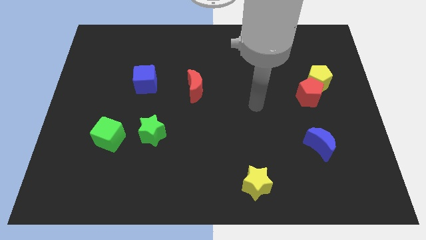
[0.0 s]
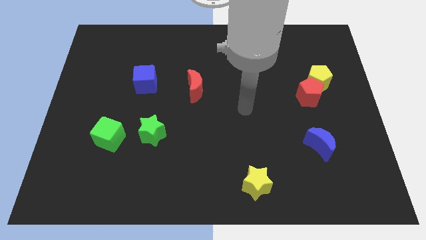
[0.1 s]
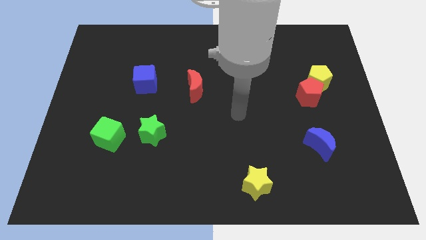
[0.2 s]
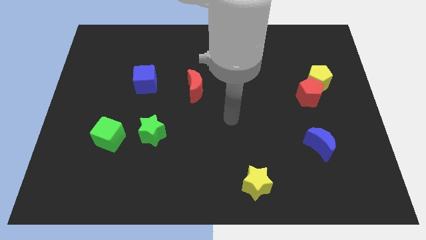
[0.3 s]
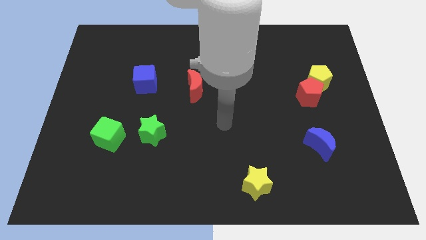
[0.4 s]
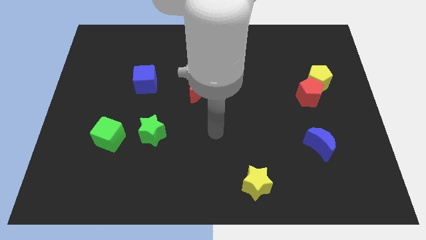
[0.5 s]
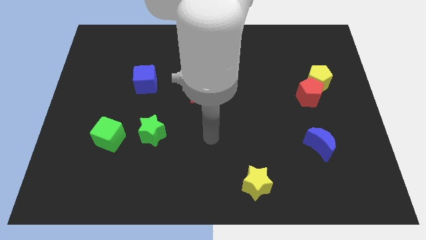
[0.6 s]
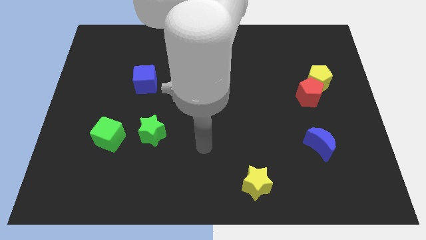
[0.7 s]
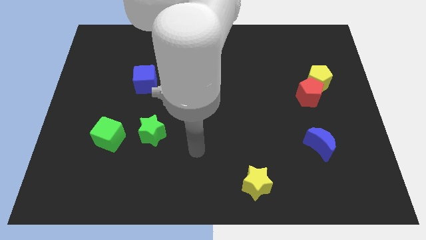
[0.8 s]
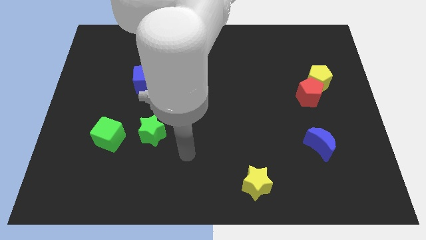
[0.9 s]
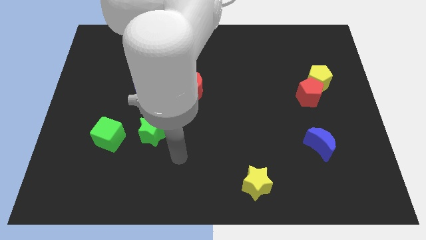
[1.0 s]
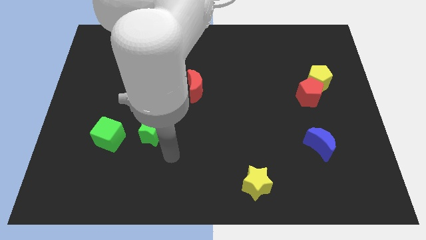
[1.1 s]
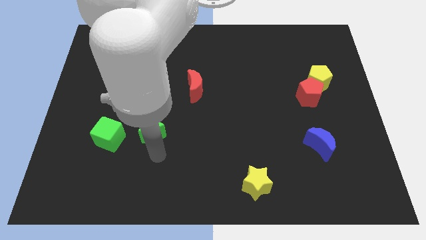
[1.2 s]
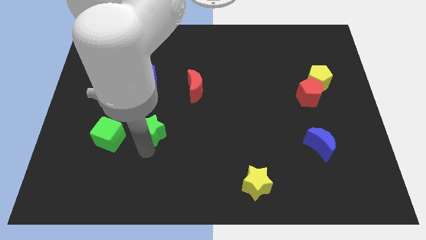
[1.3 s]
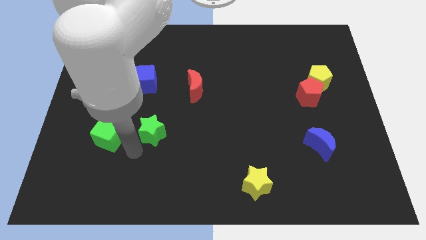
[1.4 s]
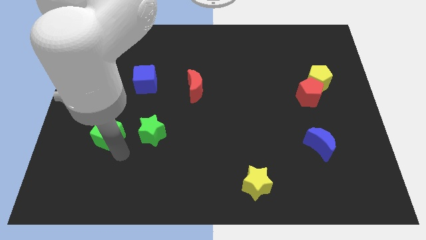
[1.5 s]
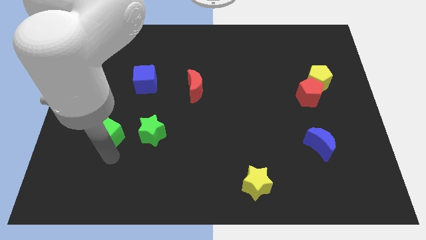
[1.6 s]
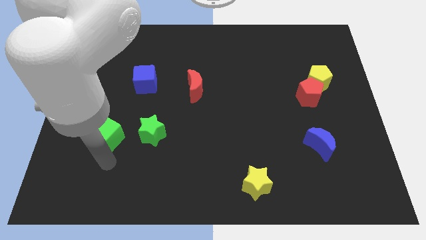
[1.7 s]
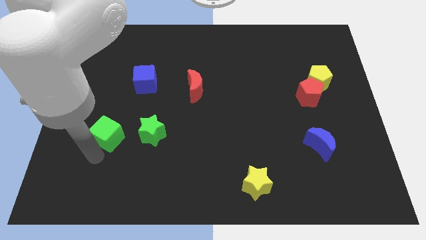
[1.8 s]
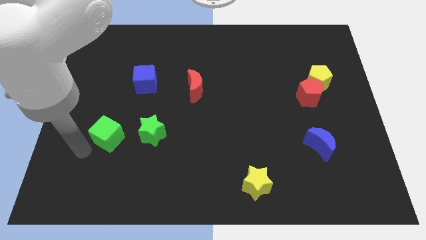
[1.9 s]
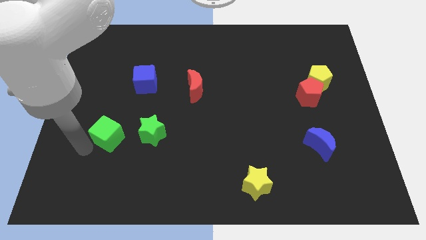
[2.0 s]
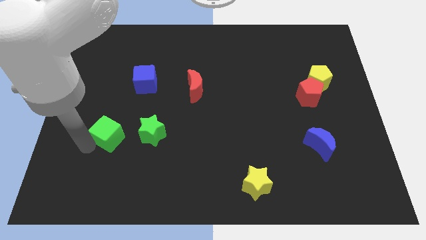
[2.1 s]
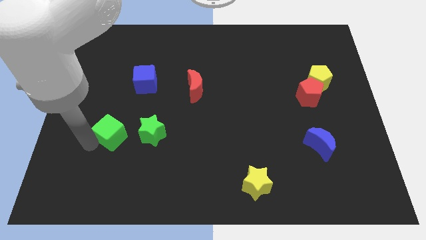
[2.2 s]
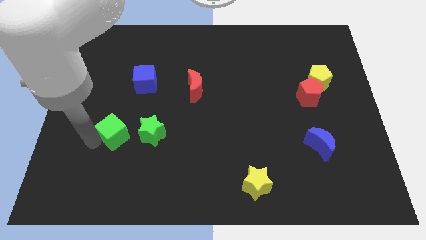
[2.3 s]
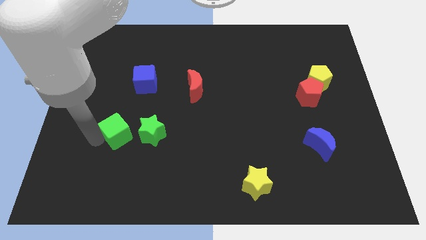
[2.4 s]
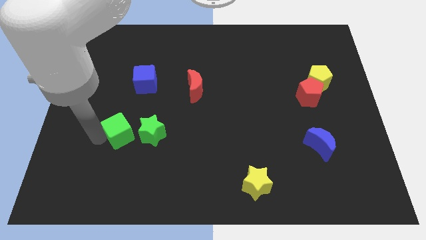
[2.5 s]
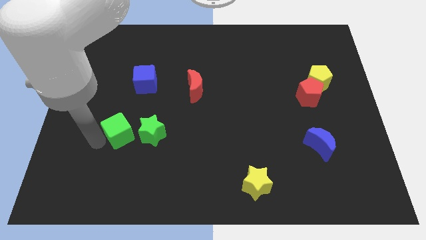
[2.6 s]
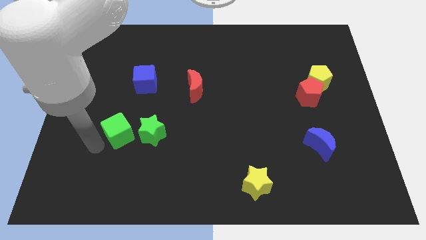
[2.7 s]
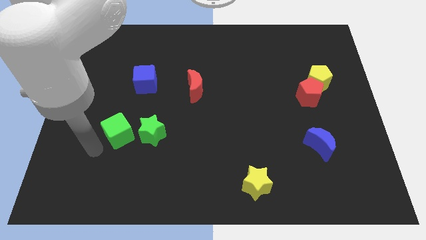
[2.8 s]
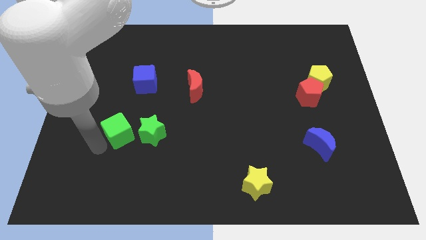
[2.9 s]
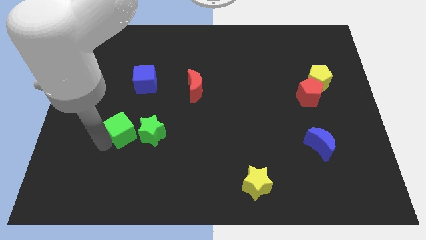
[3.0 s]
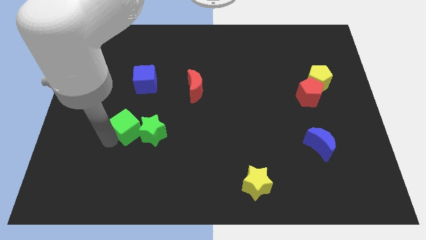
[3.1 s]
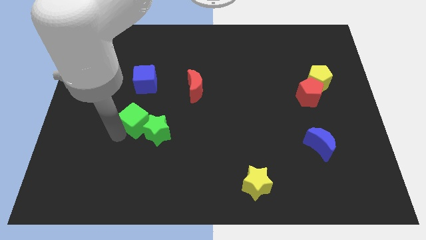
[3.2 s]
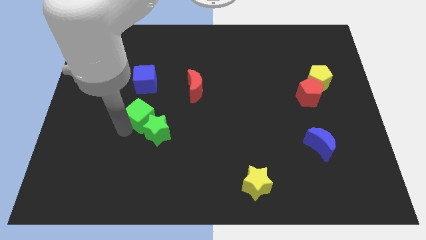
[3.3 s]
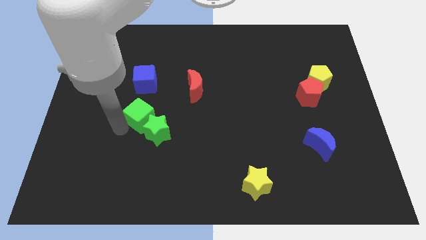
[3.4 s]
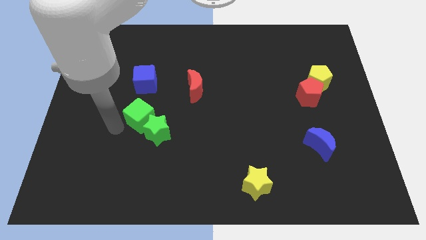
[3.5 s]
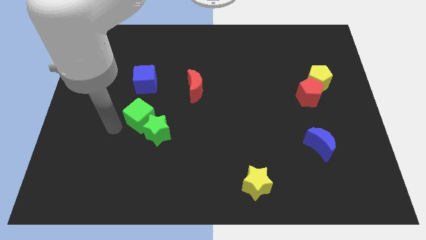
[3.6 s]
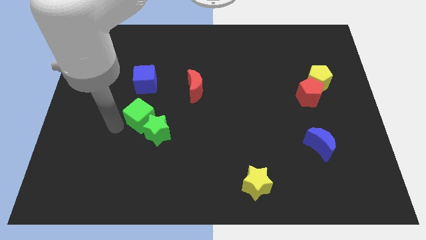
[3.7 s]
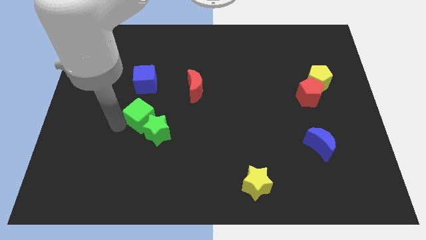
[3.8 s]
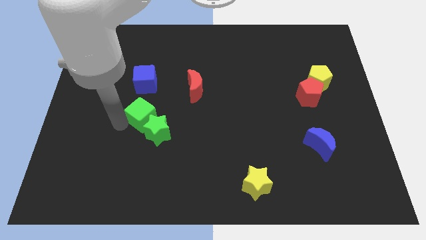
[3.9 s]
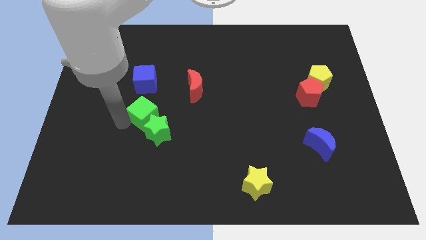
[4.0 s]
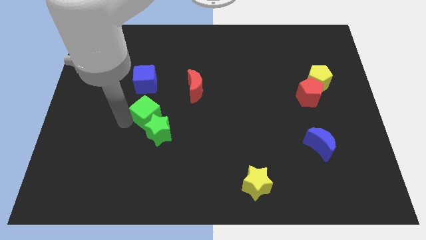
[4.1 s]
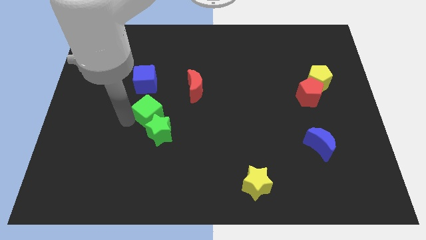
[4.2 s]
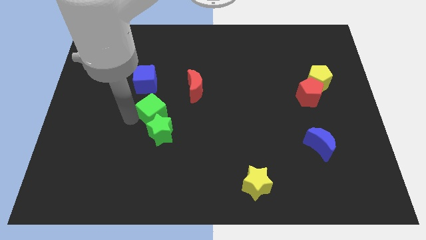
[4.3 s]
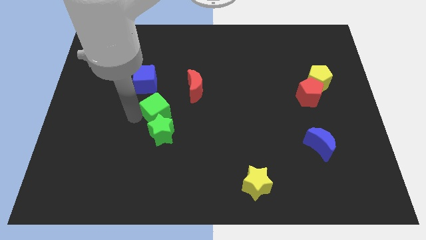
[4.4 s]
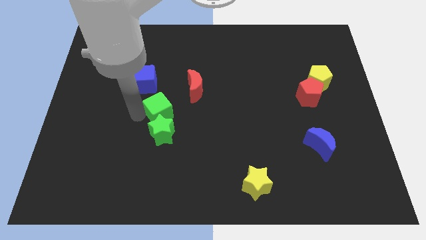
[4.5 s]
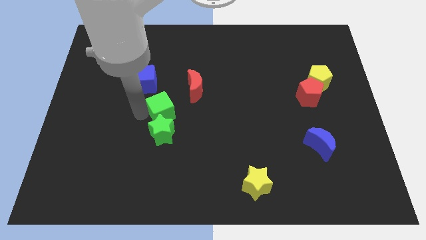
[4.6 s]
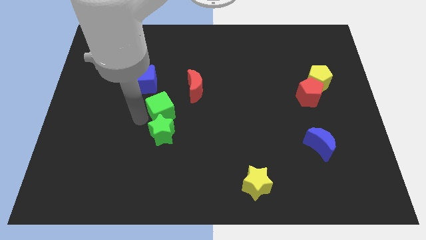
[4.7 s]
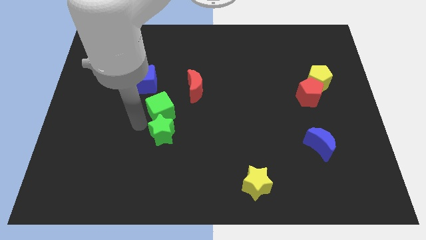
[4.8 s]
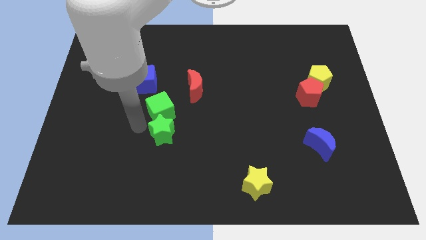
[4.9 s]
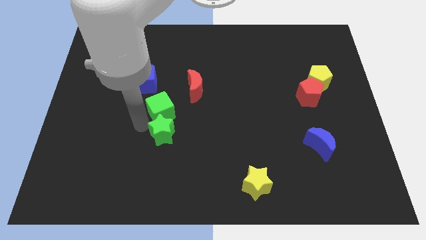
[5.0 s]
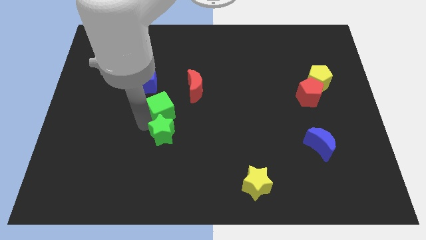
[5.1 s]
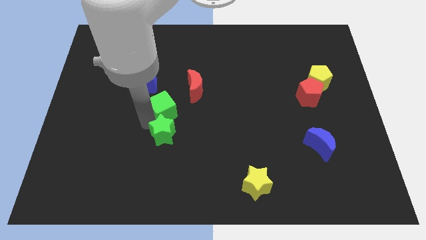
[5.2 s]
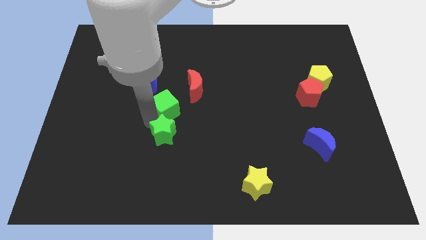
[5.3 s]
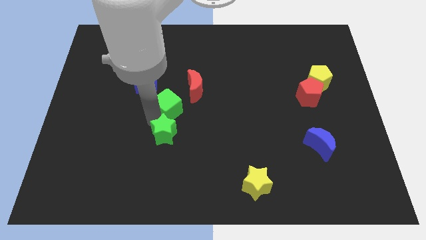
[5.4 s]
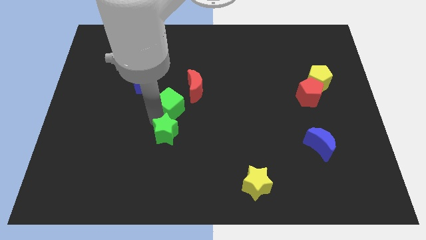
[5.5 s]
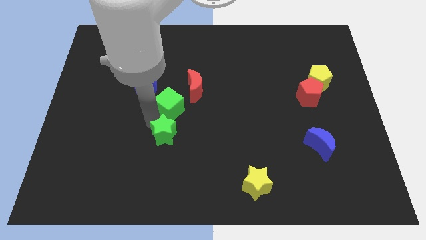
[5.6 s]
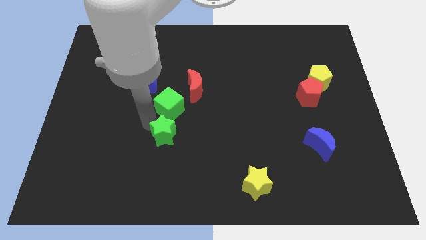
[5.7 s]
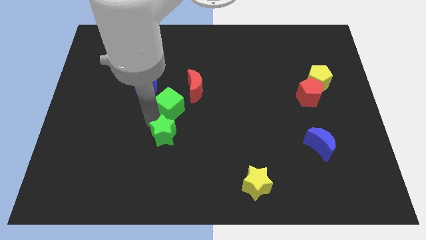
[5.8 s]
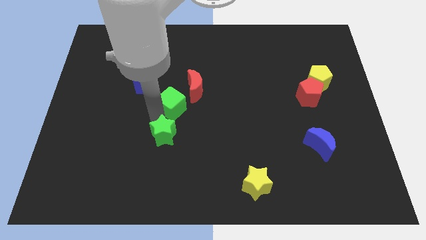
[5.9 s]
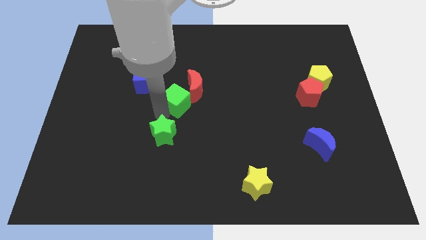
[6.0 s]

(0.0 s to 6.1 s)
push the green cube to the red moon

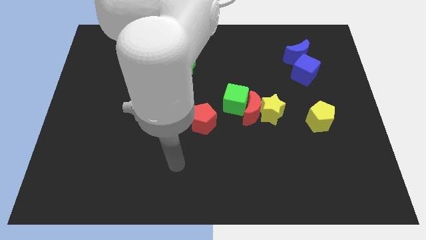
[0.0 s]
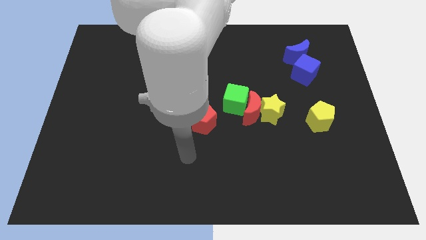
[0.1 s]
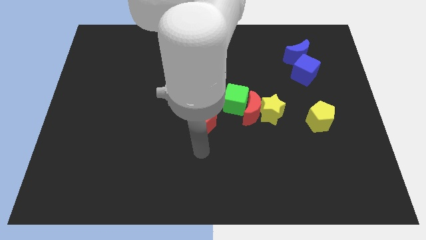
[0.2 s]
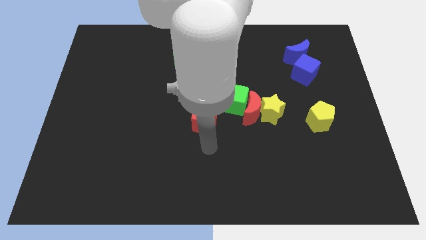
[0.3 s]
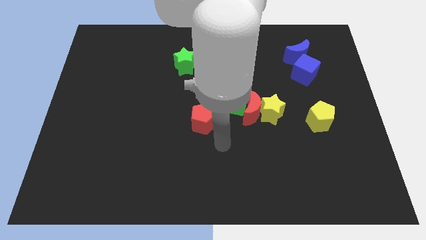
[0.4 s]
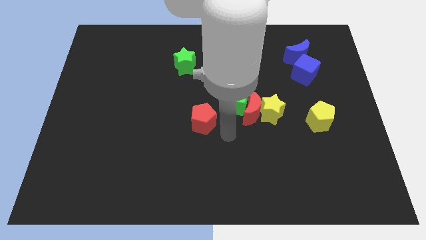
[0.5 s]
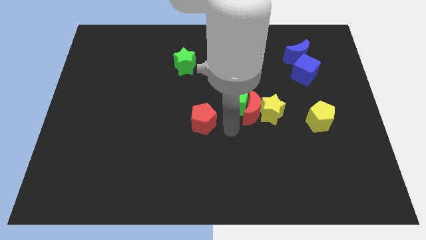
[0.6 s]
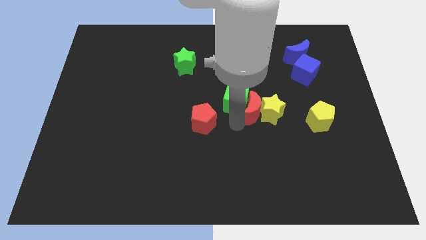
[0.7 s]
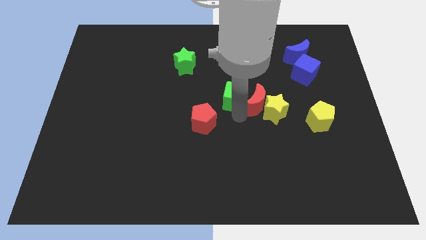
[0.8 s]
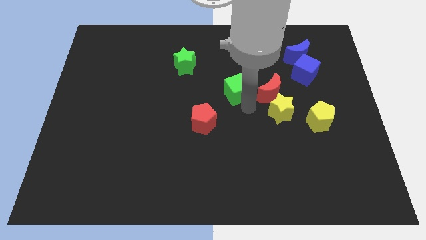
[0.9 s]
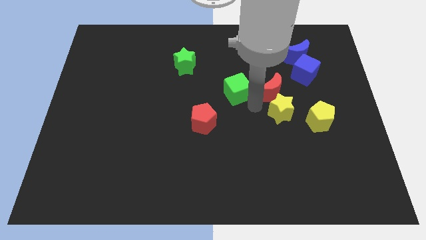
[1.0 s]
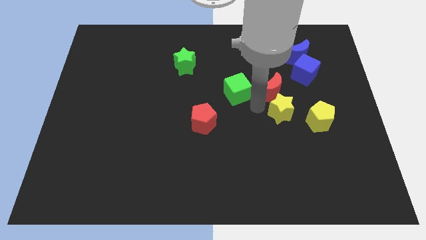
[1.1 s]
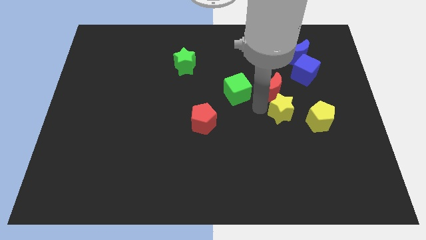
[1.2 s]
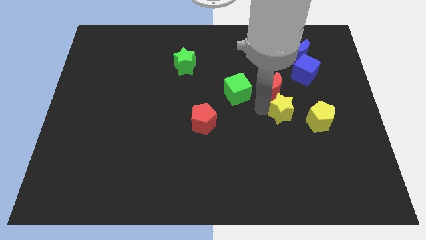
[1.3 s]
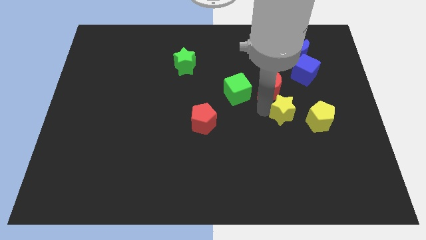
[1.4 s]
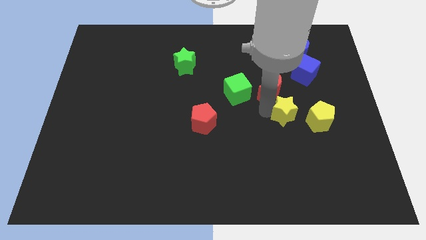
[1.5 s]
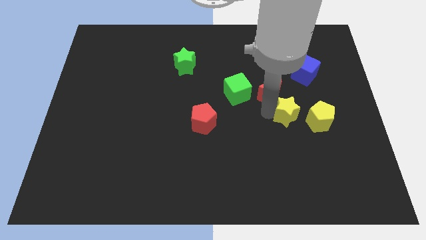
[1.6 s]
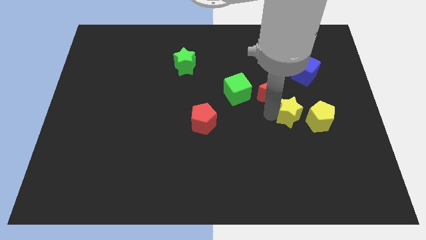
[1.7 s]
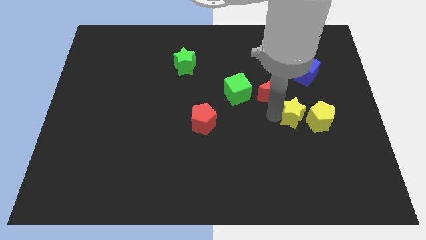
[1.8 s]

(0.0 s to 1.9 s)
slide the yellow star close to the yellow pentagon
